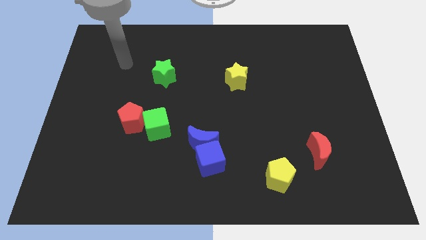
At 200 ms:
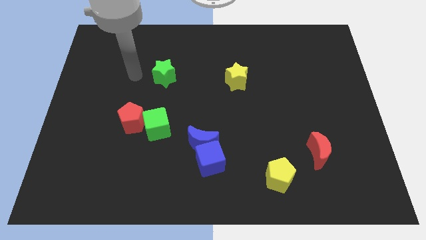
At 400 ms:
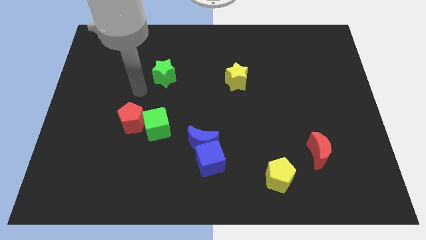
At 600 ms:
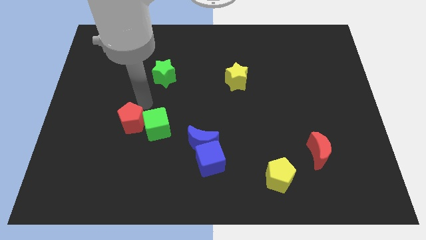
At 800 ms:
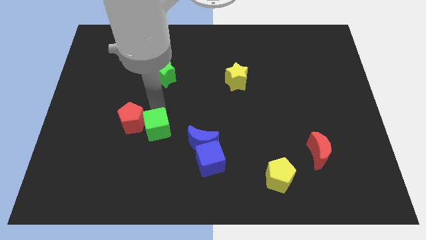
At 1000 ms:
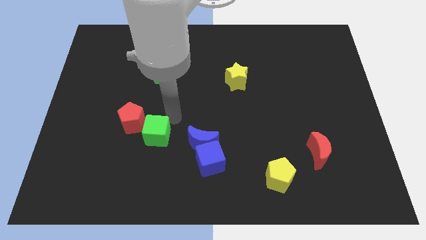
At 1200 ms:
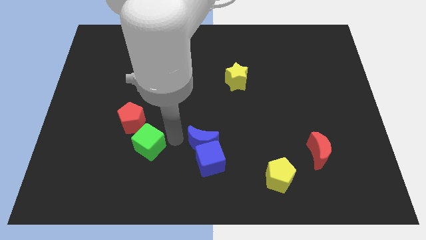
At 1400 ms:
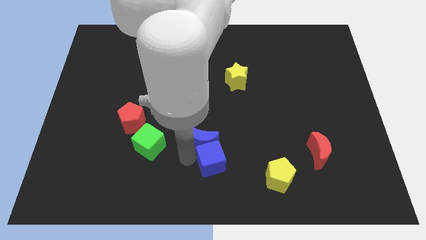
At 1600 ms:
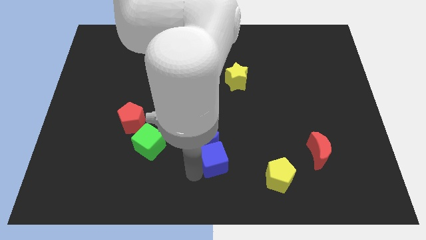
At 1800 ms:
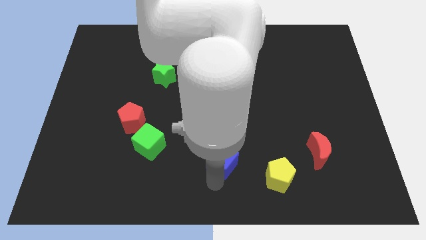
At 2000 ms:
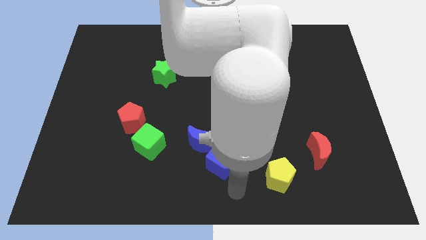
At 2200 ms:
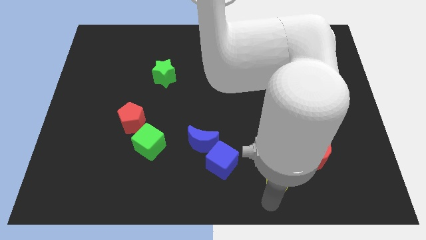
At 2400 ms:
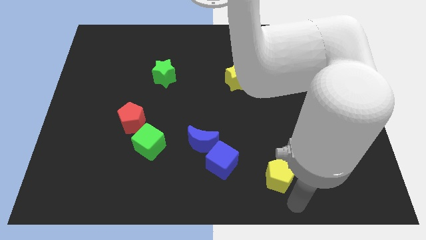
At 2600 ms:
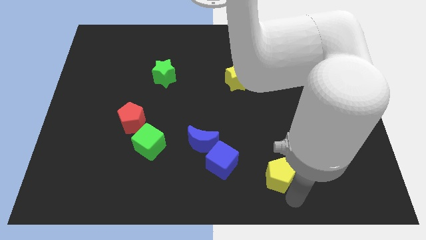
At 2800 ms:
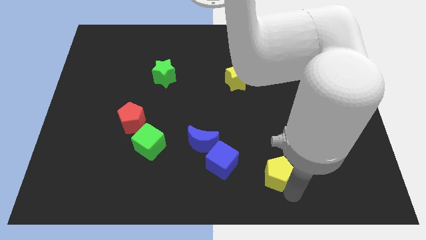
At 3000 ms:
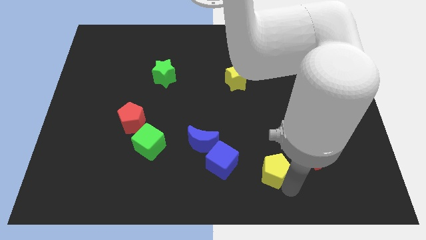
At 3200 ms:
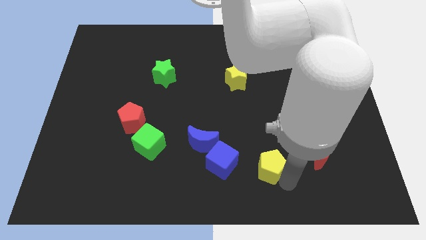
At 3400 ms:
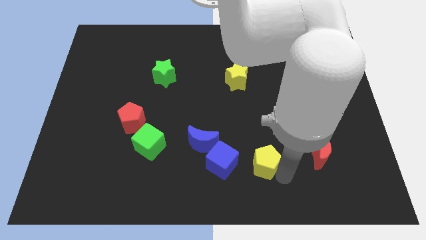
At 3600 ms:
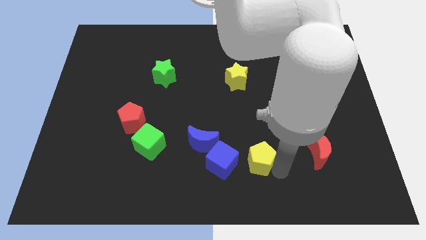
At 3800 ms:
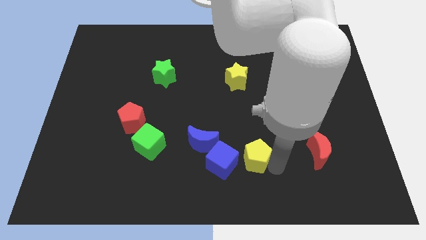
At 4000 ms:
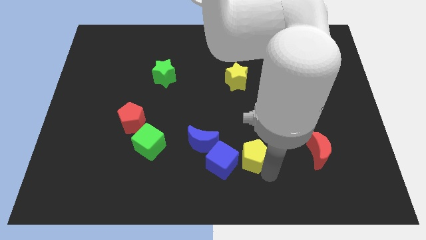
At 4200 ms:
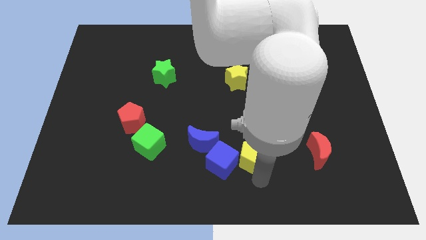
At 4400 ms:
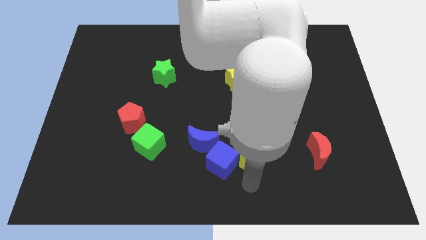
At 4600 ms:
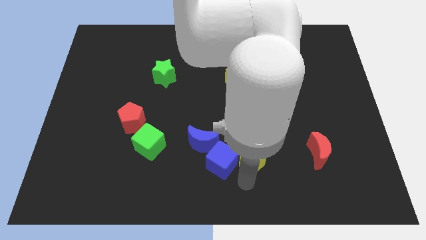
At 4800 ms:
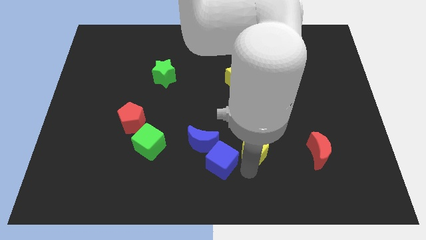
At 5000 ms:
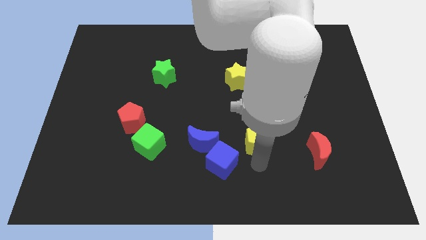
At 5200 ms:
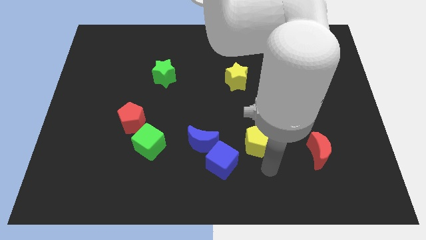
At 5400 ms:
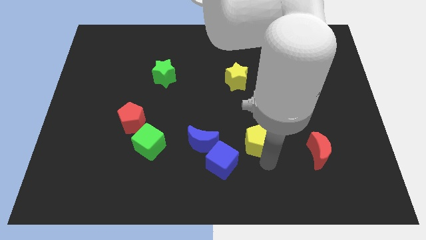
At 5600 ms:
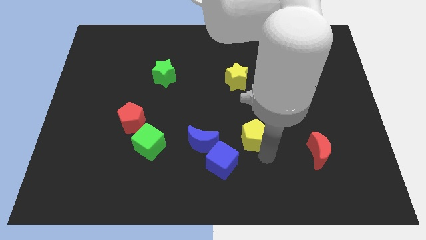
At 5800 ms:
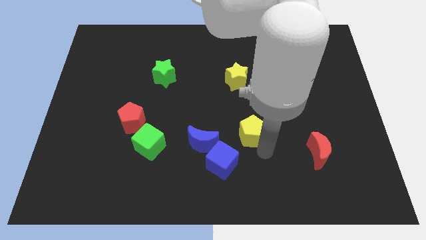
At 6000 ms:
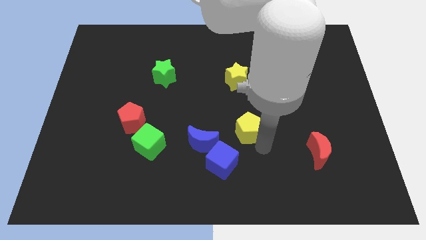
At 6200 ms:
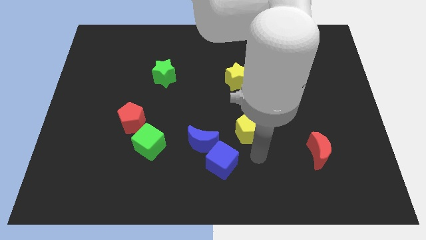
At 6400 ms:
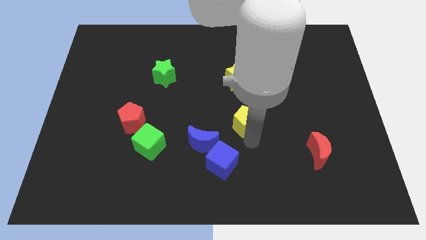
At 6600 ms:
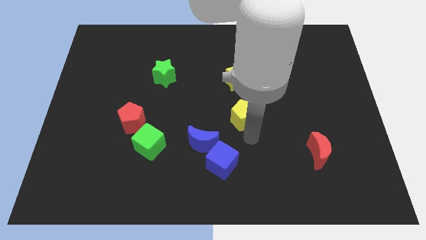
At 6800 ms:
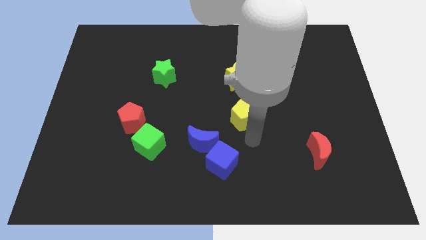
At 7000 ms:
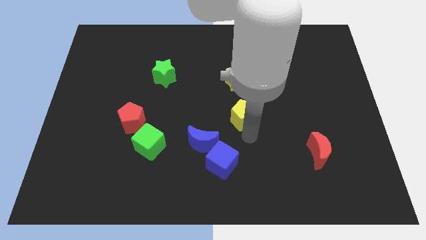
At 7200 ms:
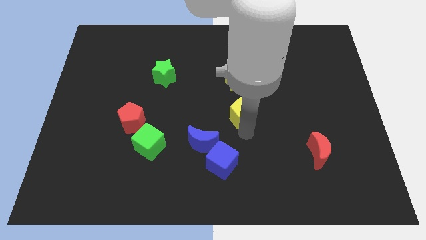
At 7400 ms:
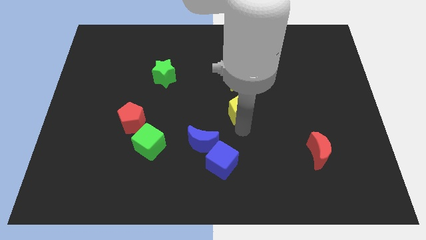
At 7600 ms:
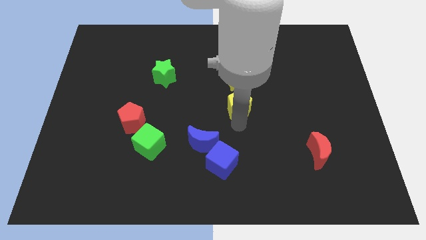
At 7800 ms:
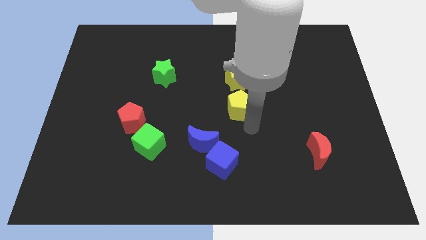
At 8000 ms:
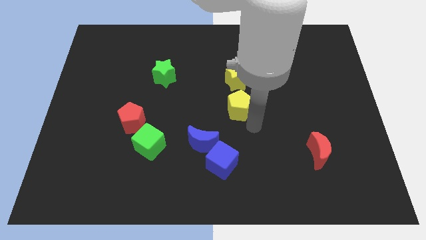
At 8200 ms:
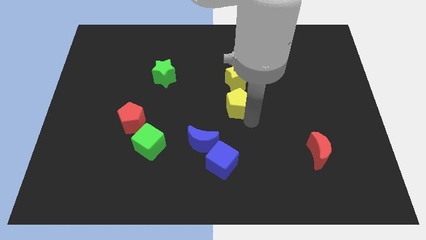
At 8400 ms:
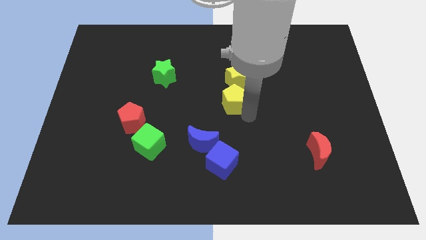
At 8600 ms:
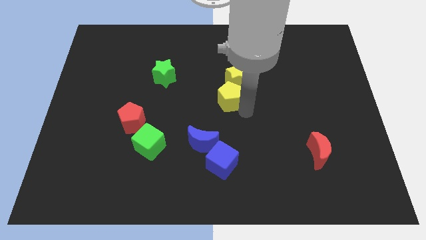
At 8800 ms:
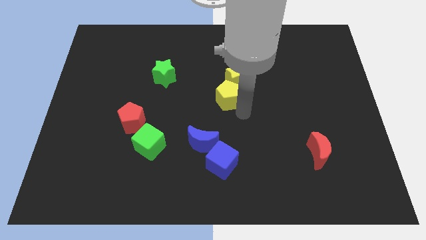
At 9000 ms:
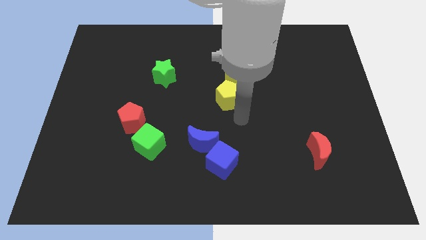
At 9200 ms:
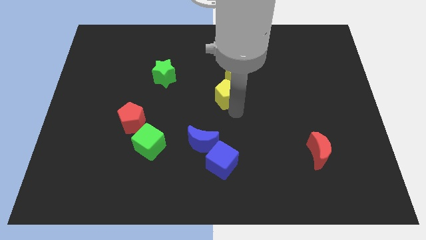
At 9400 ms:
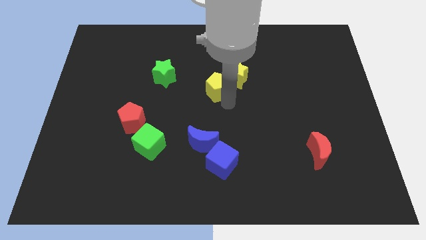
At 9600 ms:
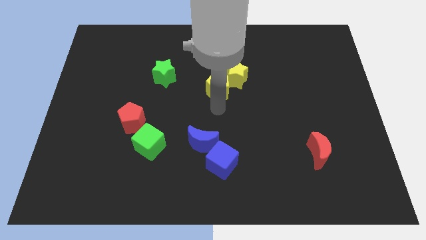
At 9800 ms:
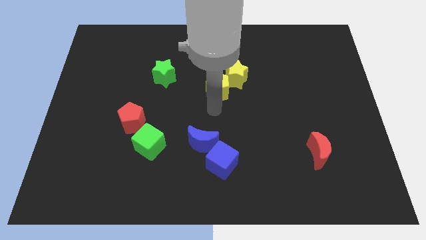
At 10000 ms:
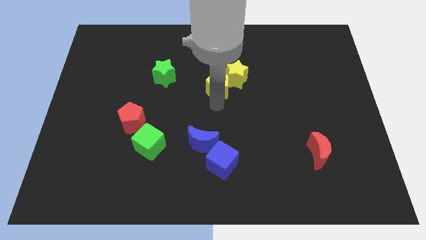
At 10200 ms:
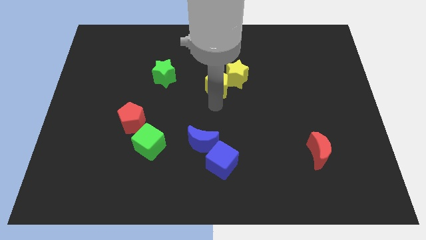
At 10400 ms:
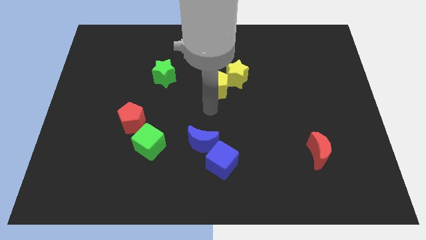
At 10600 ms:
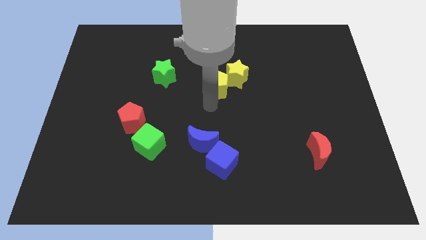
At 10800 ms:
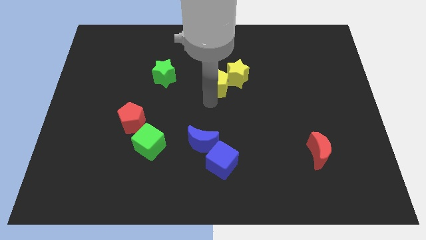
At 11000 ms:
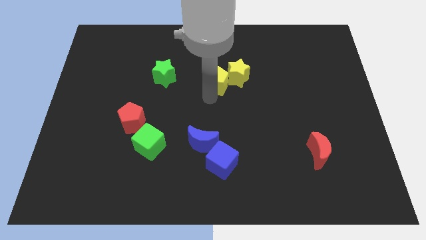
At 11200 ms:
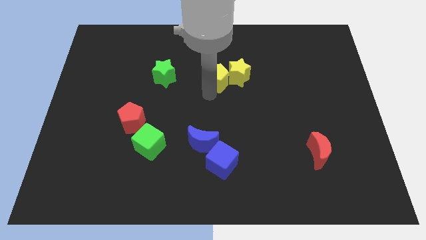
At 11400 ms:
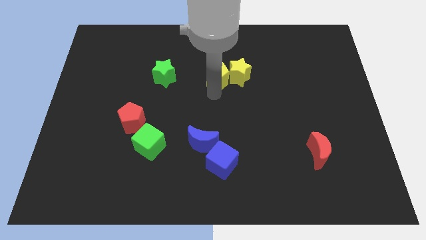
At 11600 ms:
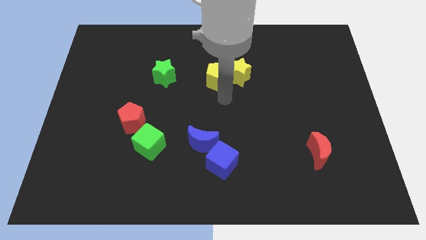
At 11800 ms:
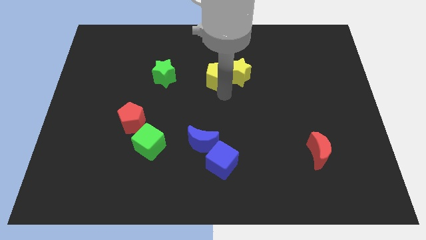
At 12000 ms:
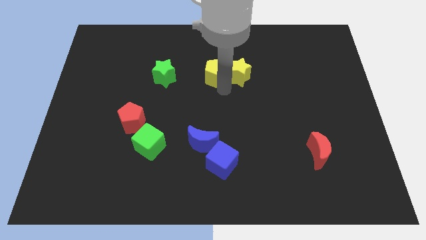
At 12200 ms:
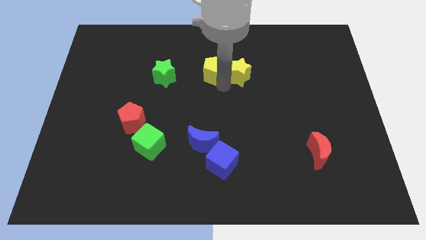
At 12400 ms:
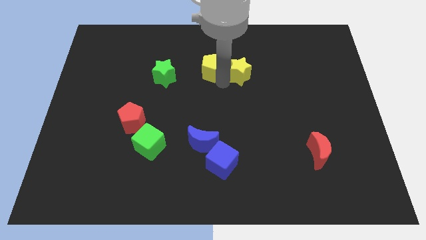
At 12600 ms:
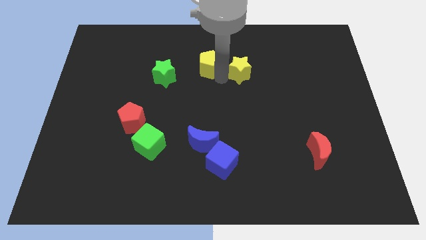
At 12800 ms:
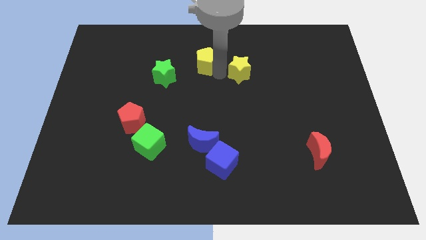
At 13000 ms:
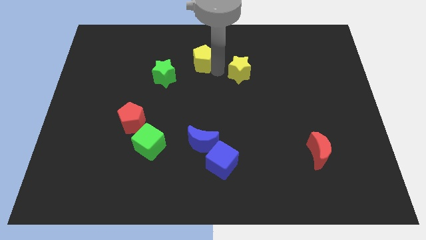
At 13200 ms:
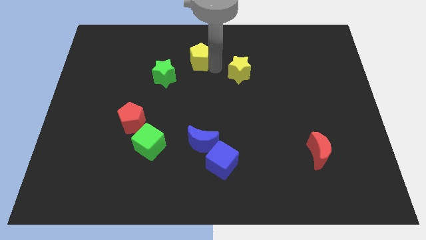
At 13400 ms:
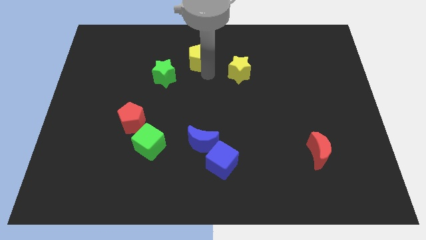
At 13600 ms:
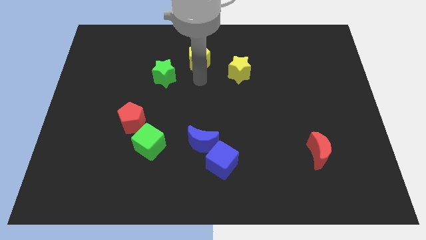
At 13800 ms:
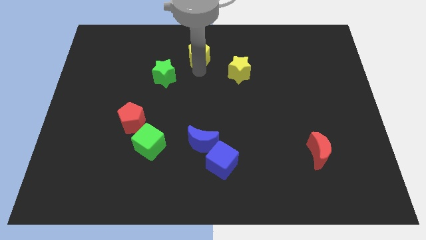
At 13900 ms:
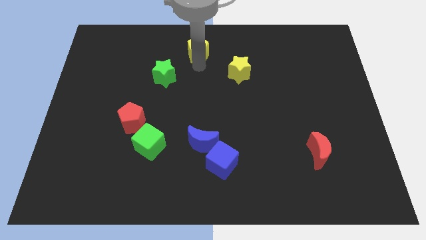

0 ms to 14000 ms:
push the yellow pentagon to the top
